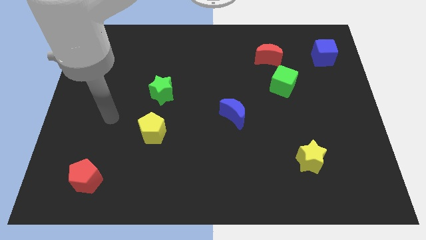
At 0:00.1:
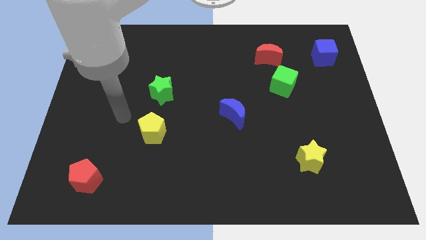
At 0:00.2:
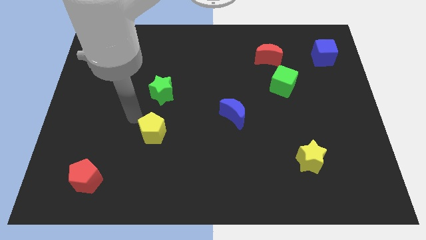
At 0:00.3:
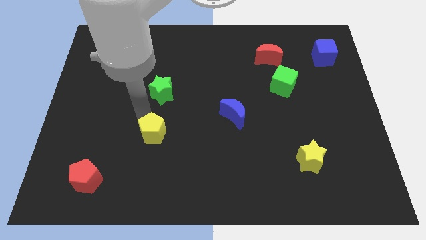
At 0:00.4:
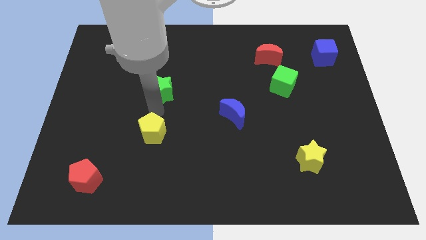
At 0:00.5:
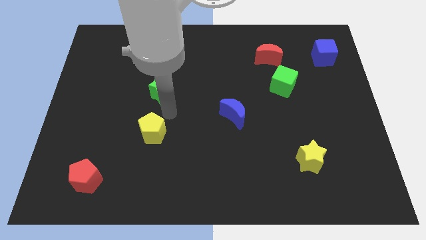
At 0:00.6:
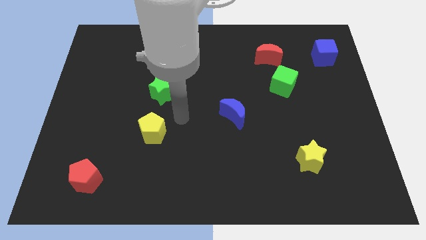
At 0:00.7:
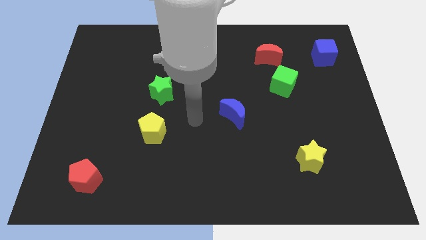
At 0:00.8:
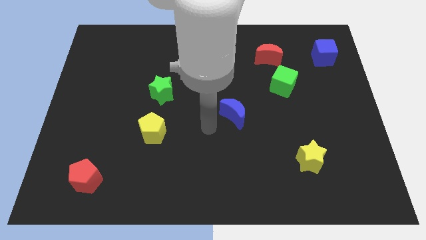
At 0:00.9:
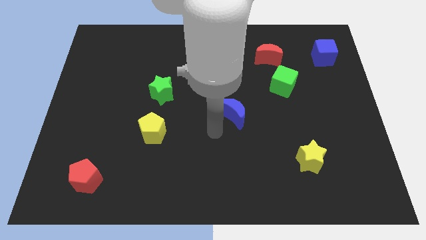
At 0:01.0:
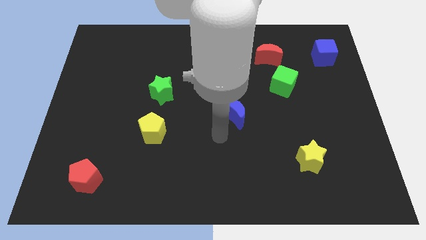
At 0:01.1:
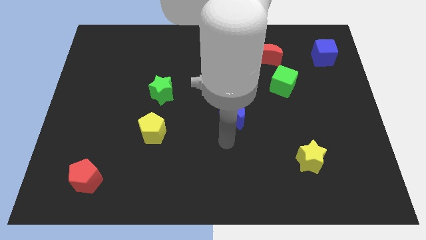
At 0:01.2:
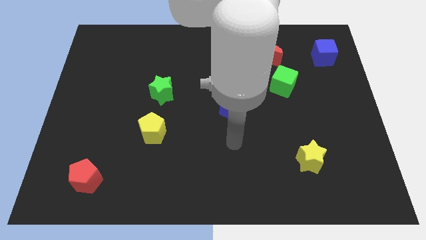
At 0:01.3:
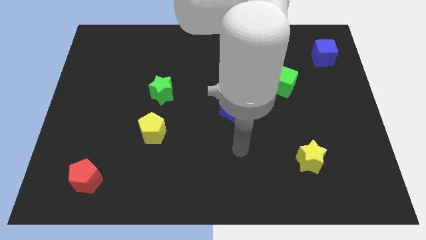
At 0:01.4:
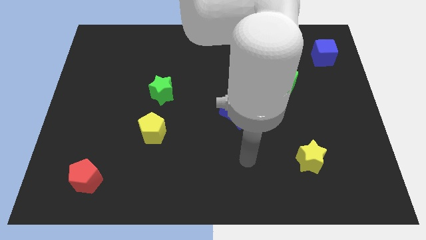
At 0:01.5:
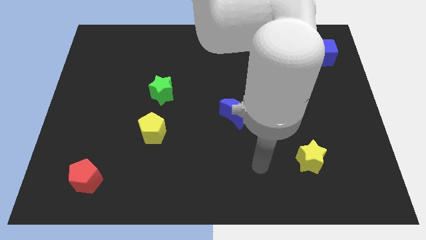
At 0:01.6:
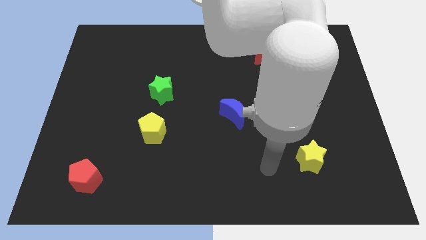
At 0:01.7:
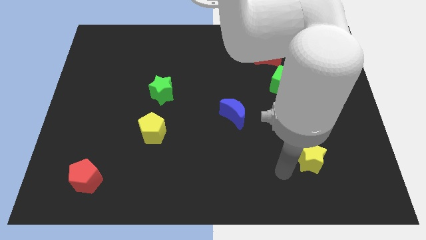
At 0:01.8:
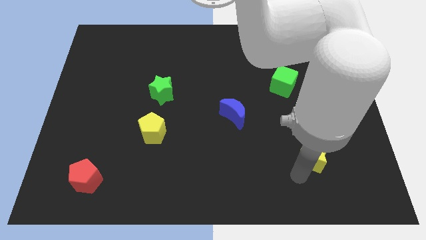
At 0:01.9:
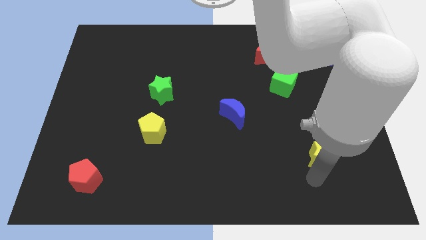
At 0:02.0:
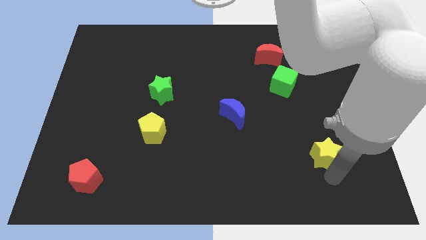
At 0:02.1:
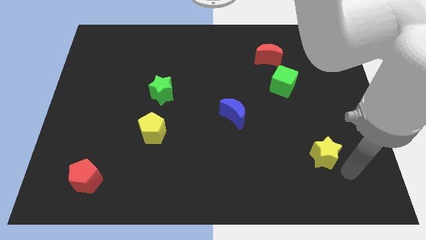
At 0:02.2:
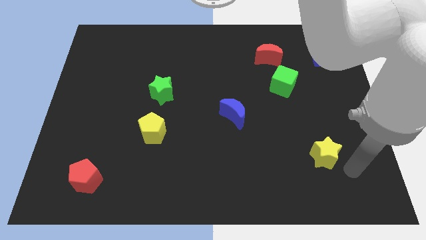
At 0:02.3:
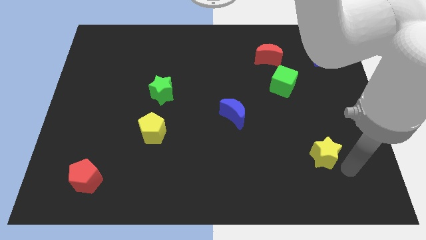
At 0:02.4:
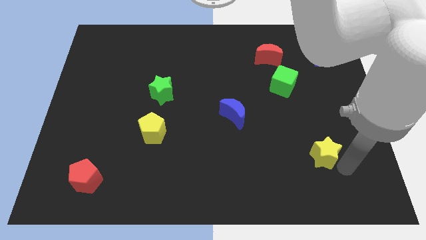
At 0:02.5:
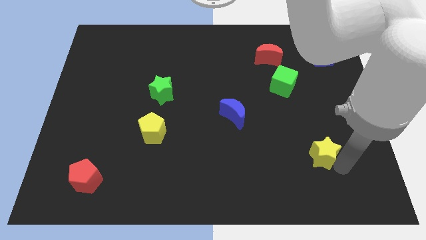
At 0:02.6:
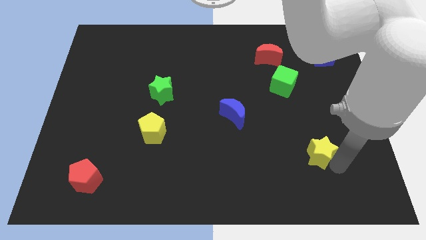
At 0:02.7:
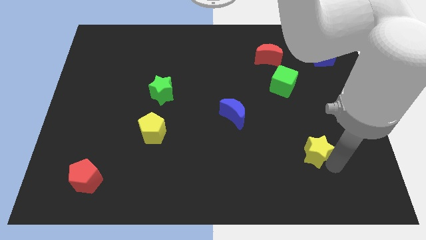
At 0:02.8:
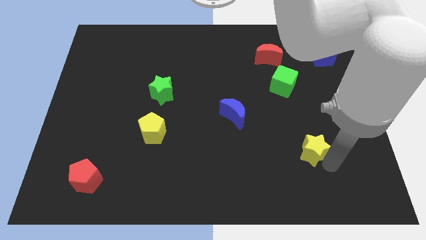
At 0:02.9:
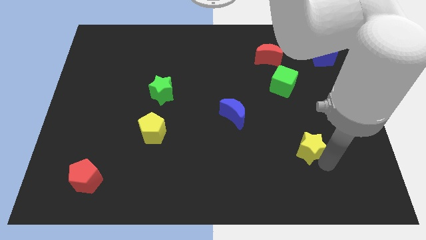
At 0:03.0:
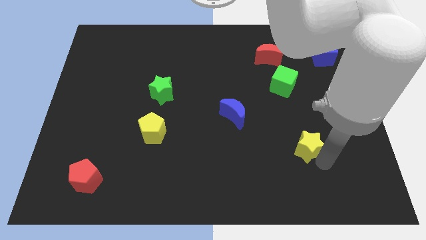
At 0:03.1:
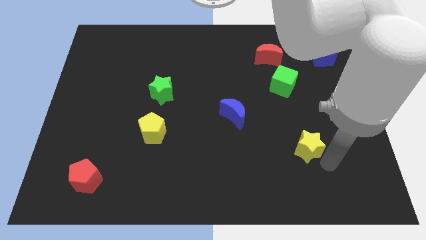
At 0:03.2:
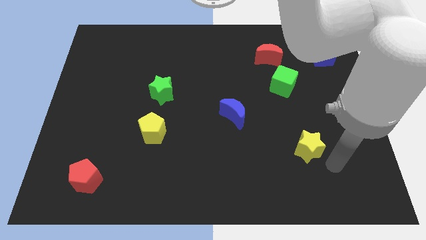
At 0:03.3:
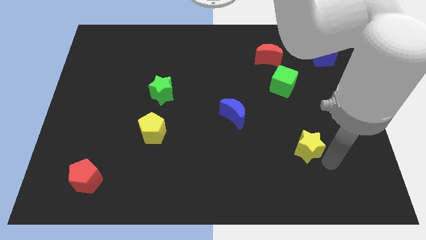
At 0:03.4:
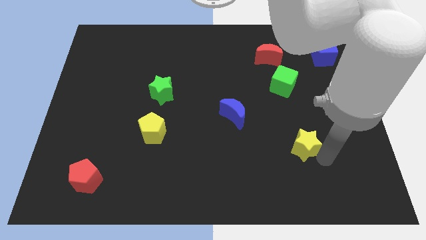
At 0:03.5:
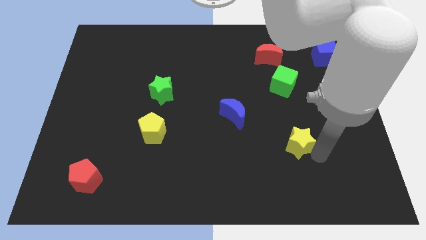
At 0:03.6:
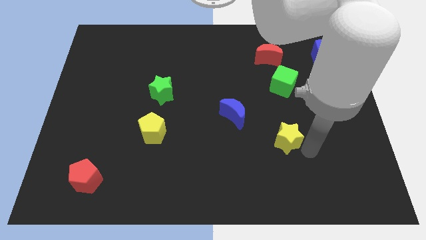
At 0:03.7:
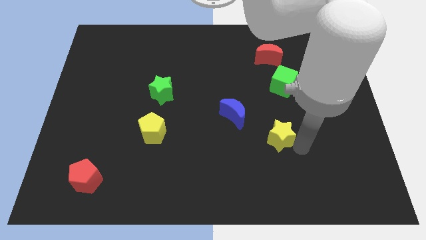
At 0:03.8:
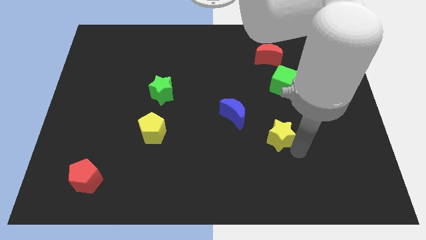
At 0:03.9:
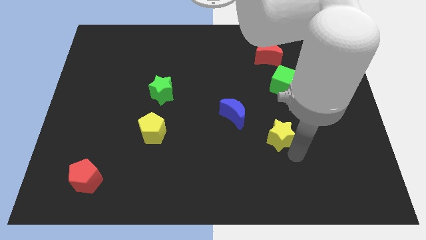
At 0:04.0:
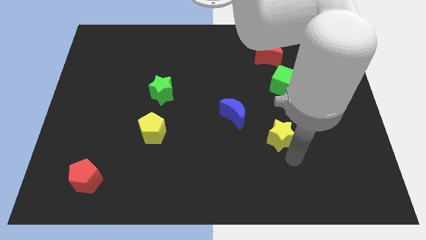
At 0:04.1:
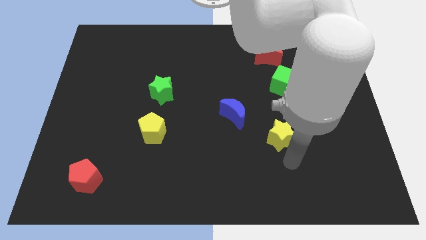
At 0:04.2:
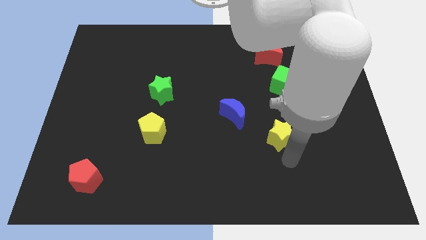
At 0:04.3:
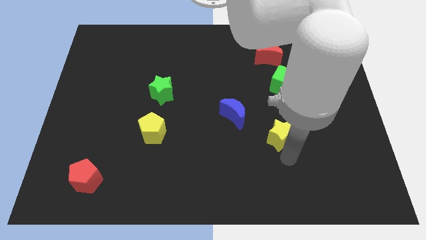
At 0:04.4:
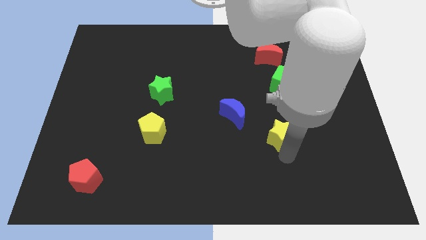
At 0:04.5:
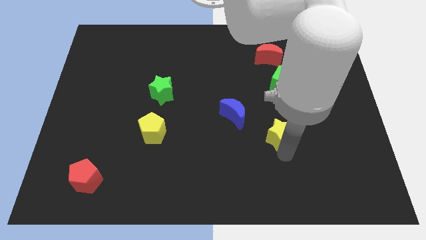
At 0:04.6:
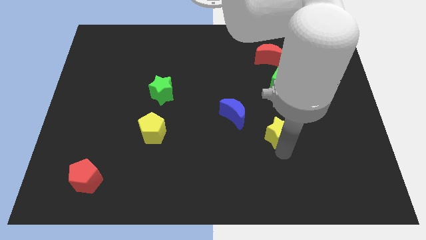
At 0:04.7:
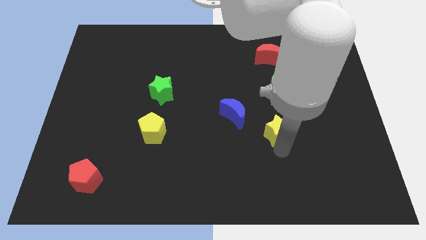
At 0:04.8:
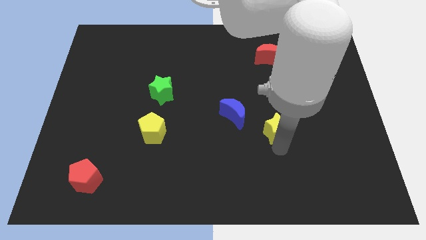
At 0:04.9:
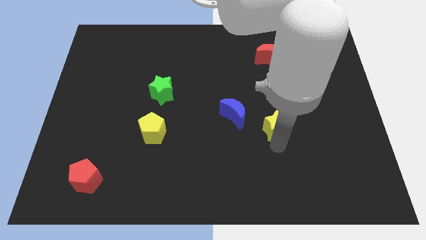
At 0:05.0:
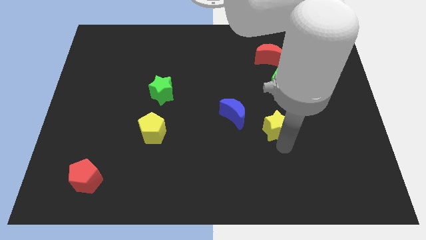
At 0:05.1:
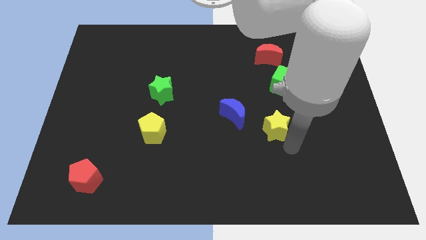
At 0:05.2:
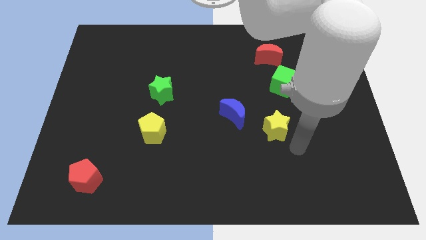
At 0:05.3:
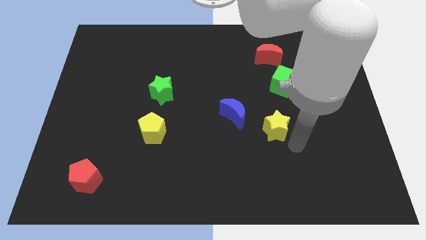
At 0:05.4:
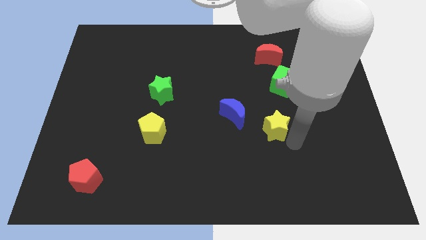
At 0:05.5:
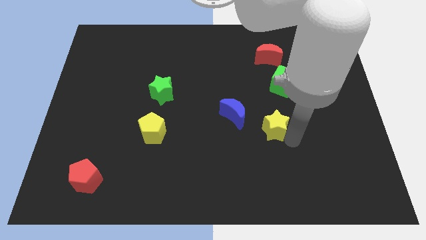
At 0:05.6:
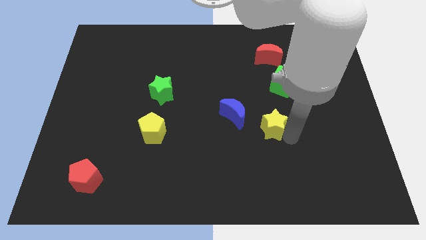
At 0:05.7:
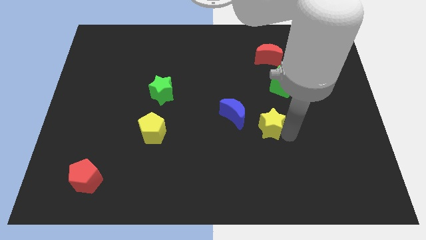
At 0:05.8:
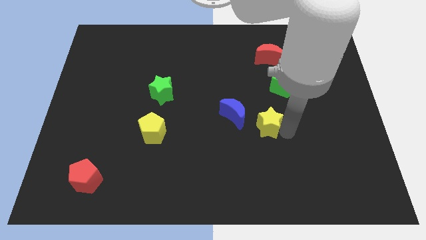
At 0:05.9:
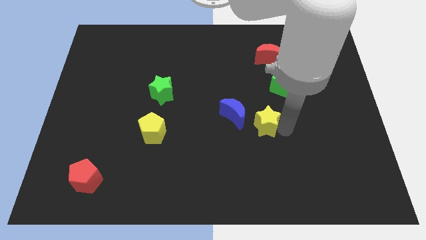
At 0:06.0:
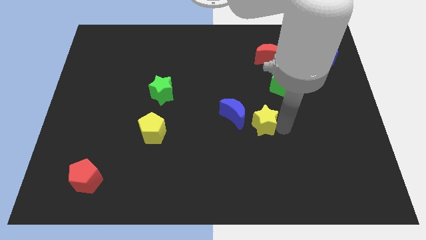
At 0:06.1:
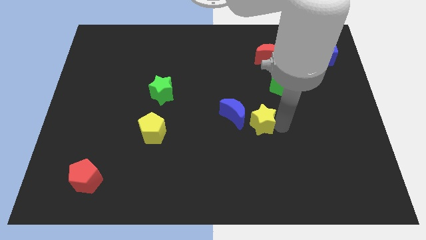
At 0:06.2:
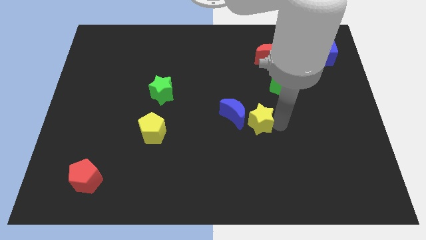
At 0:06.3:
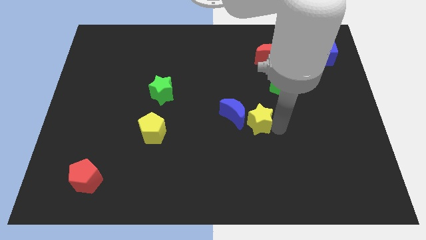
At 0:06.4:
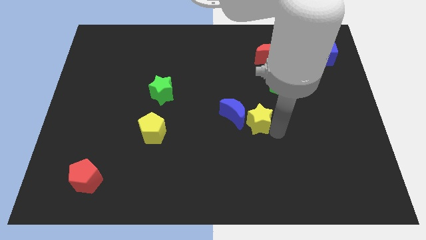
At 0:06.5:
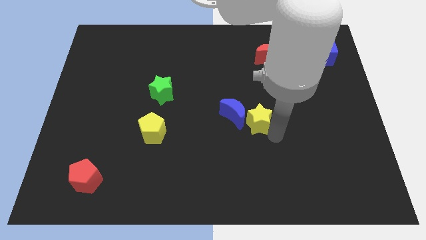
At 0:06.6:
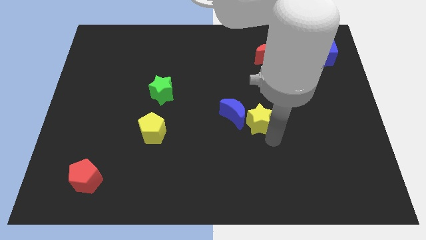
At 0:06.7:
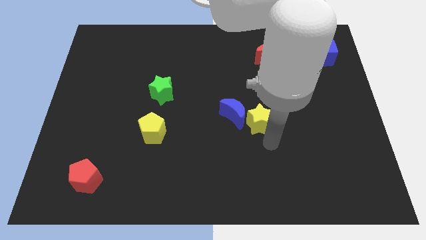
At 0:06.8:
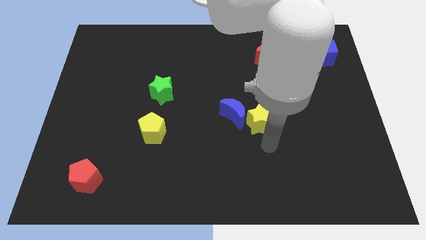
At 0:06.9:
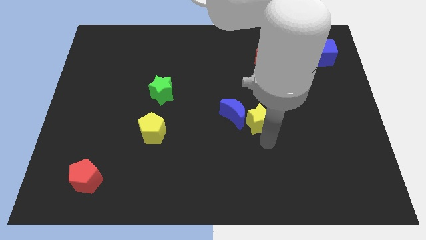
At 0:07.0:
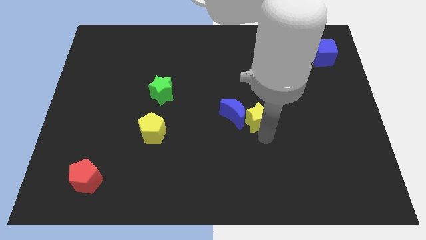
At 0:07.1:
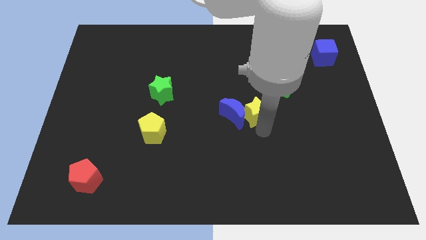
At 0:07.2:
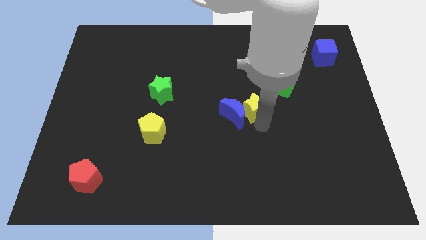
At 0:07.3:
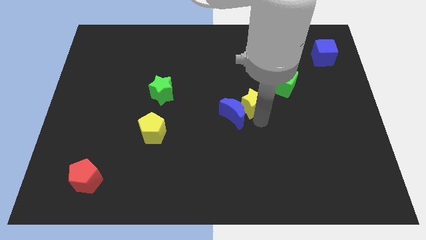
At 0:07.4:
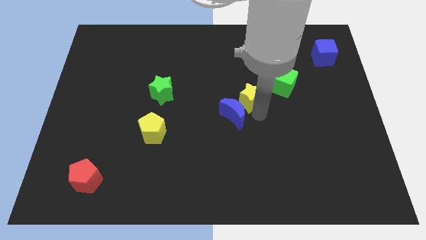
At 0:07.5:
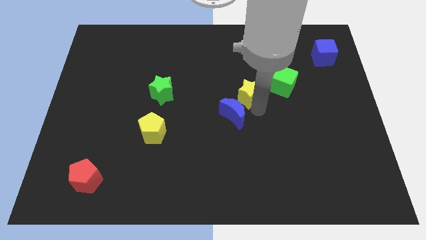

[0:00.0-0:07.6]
slide the yellow star diagonally upwards and to the left

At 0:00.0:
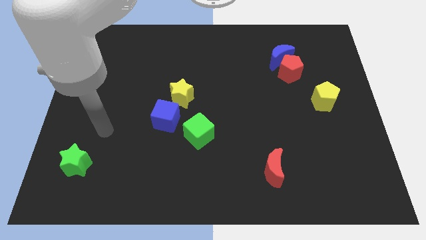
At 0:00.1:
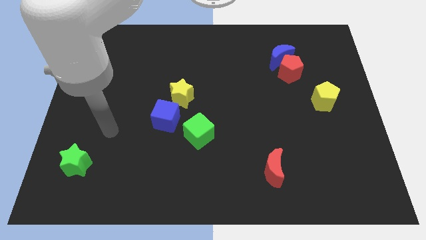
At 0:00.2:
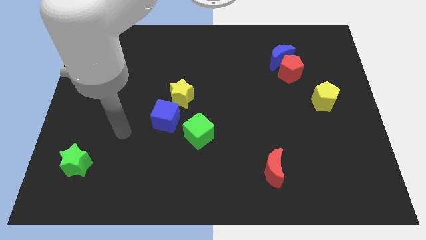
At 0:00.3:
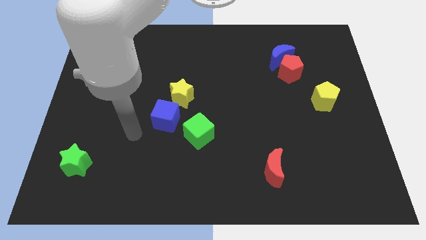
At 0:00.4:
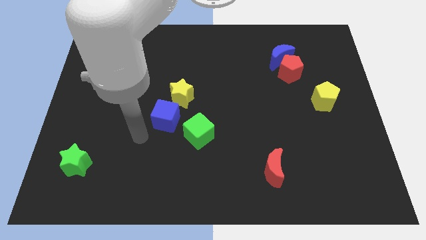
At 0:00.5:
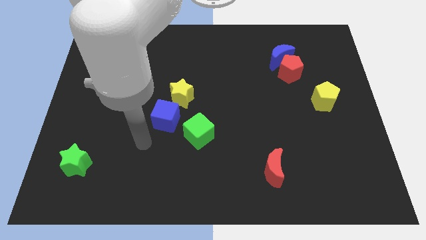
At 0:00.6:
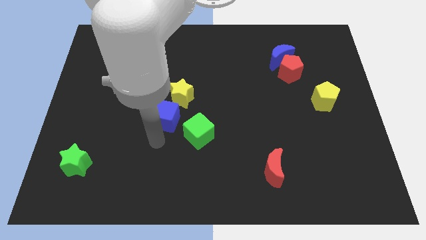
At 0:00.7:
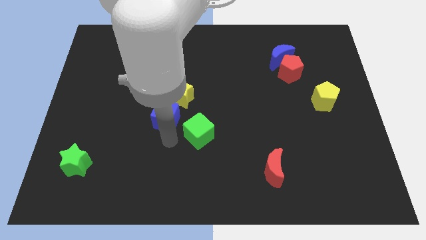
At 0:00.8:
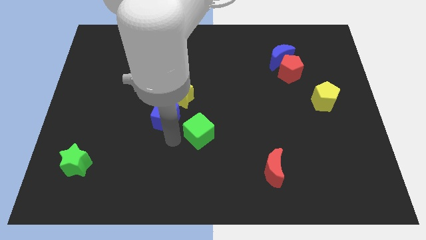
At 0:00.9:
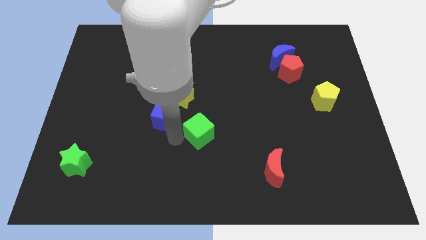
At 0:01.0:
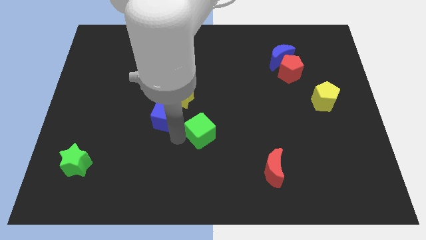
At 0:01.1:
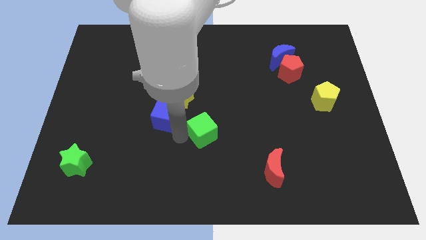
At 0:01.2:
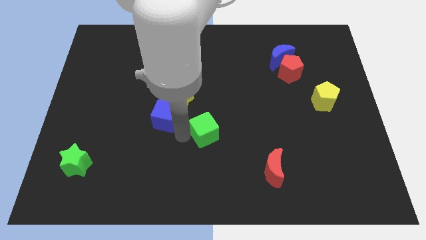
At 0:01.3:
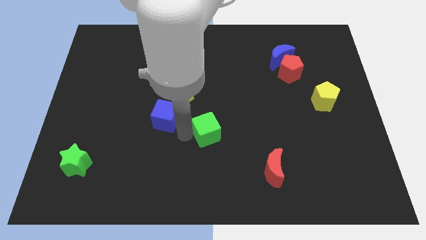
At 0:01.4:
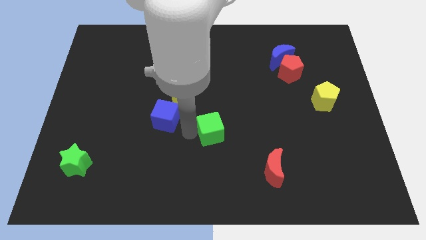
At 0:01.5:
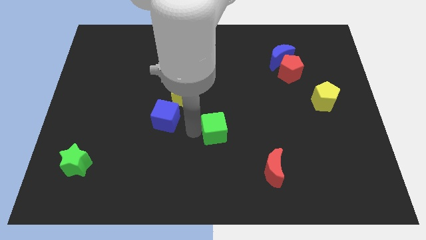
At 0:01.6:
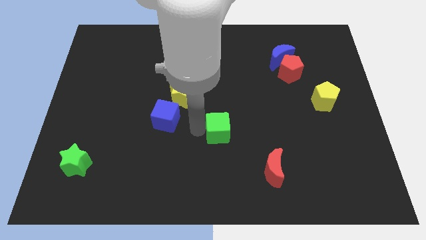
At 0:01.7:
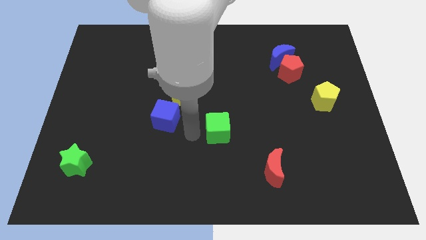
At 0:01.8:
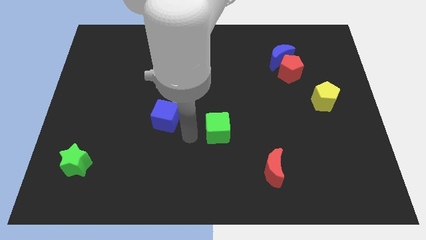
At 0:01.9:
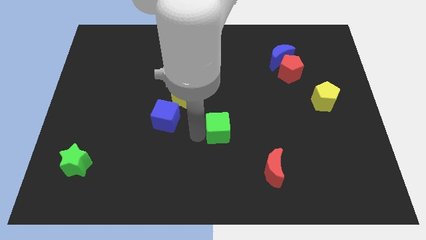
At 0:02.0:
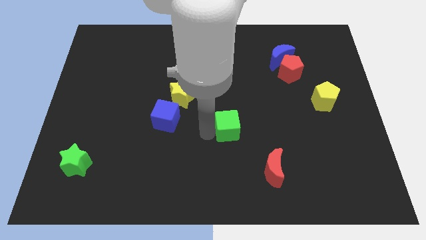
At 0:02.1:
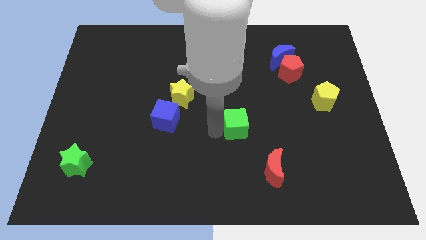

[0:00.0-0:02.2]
slide the green cube a little right
